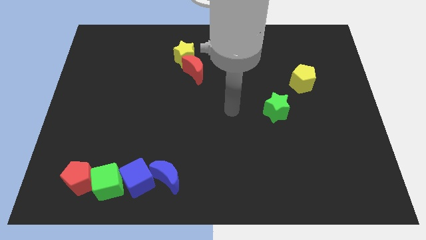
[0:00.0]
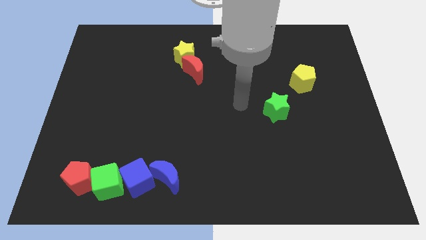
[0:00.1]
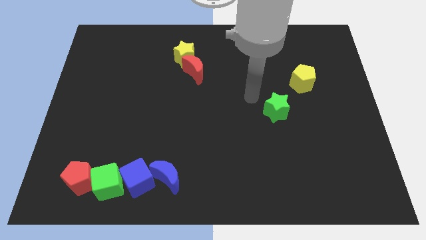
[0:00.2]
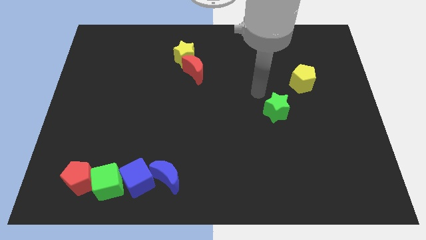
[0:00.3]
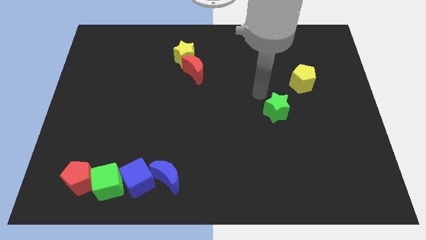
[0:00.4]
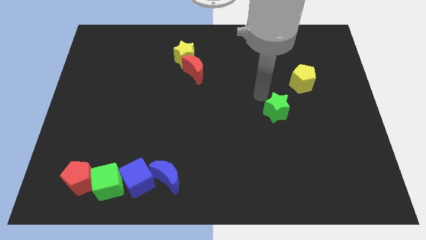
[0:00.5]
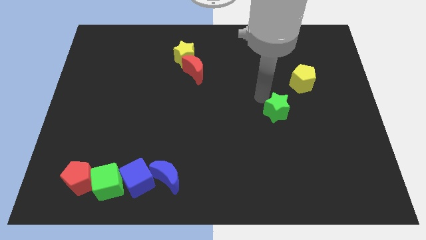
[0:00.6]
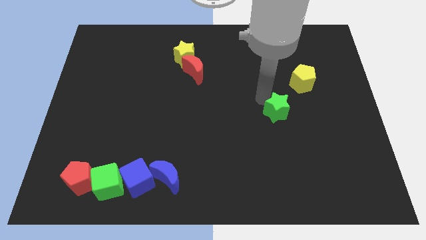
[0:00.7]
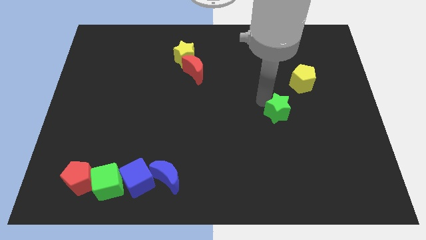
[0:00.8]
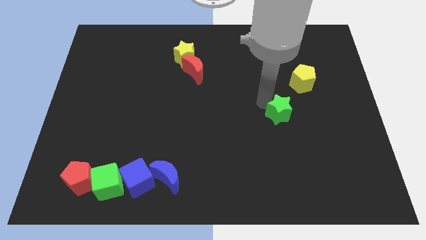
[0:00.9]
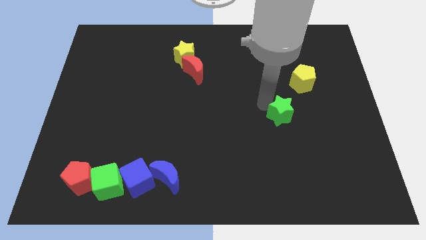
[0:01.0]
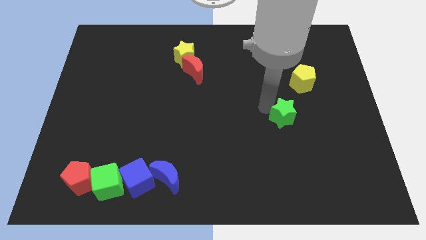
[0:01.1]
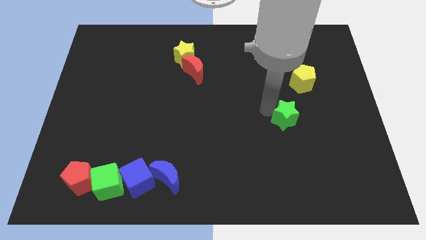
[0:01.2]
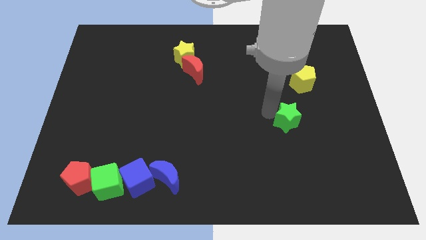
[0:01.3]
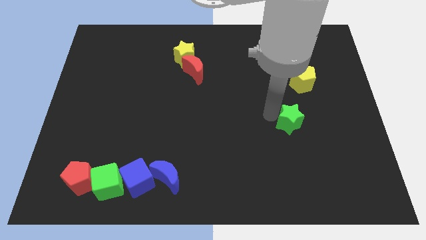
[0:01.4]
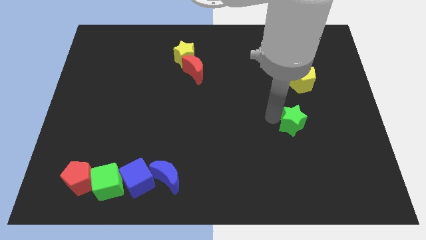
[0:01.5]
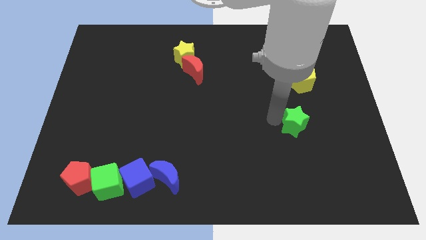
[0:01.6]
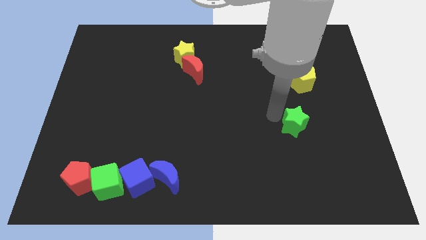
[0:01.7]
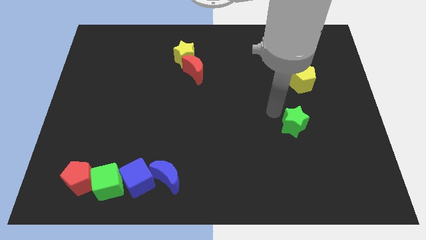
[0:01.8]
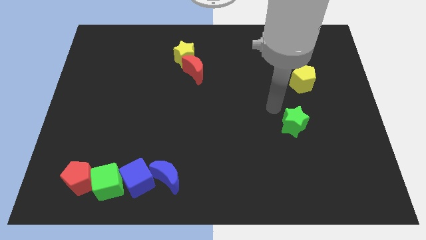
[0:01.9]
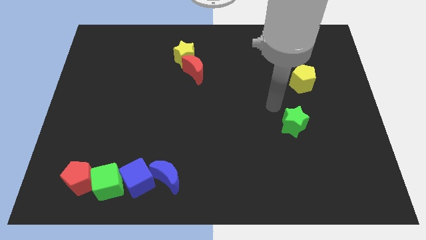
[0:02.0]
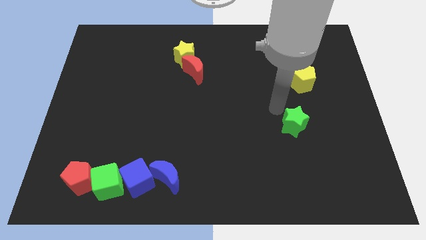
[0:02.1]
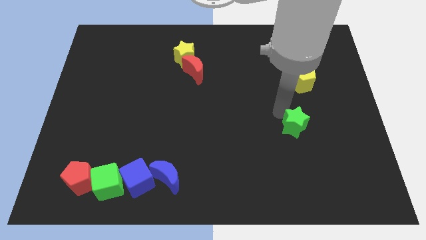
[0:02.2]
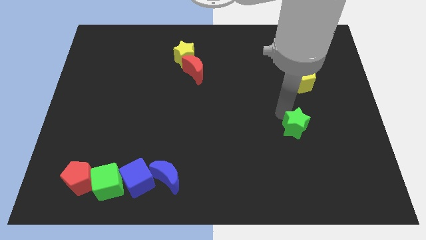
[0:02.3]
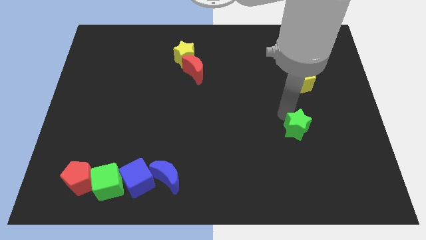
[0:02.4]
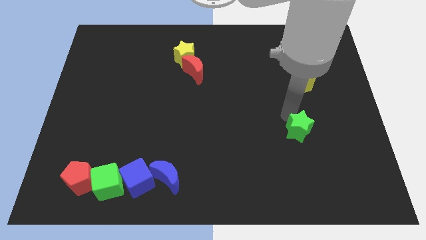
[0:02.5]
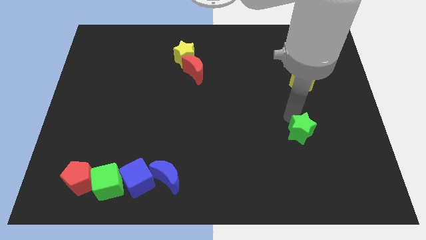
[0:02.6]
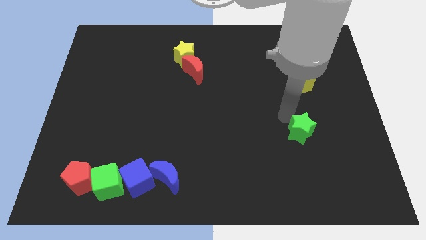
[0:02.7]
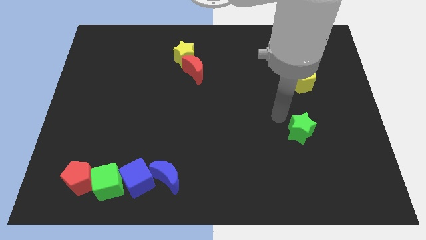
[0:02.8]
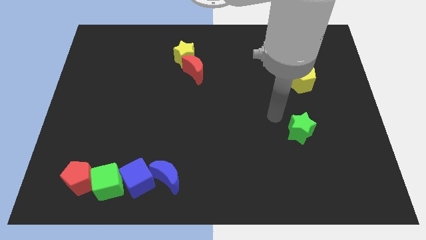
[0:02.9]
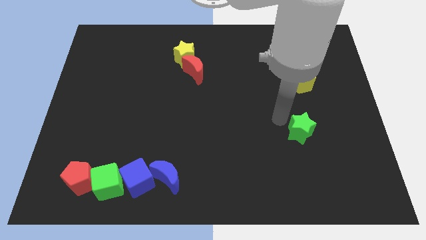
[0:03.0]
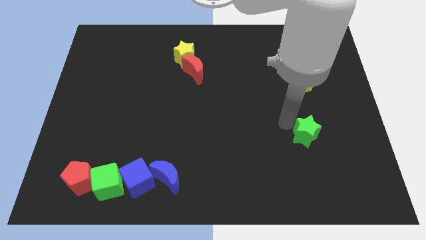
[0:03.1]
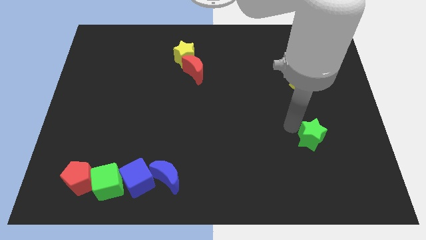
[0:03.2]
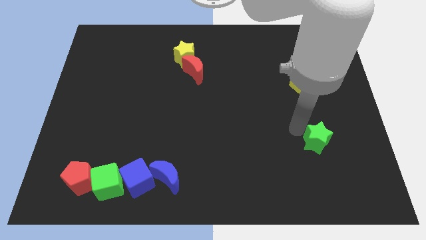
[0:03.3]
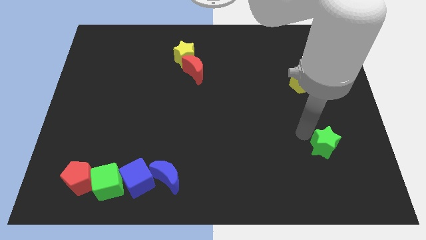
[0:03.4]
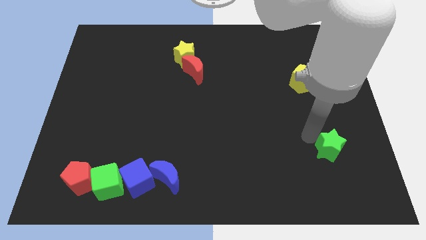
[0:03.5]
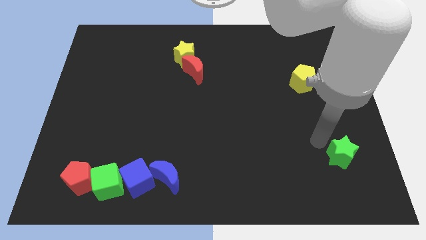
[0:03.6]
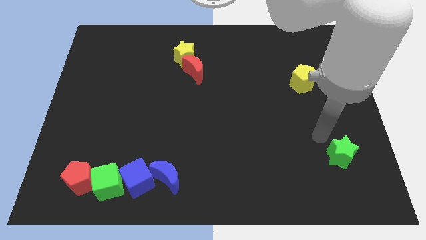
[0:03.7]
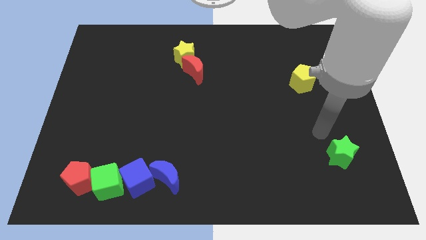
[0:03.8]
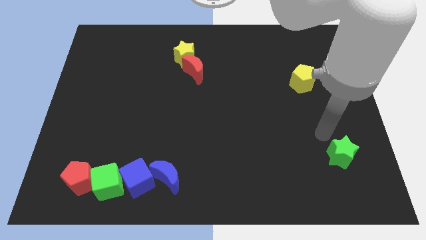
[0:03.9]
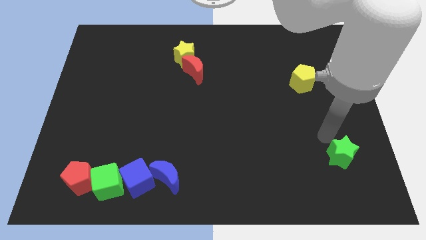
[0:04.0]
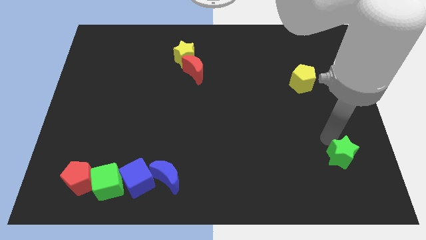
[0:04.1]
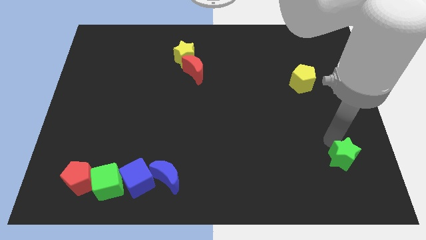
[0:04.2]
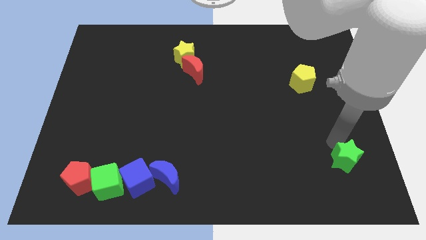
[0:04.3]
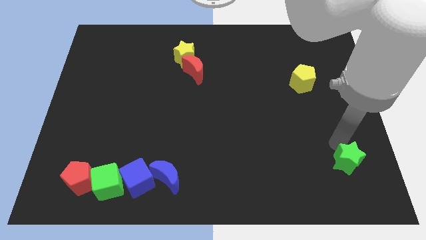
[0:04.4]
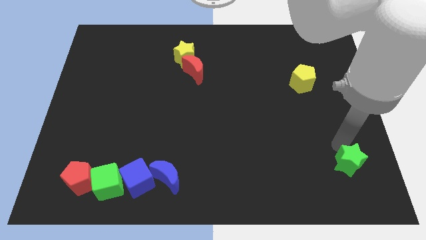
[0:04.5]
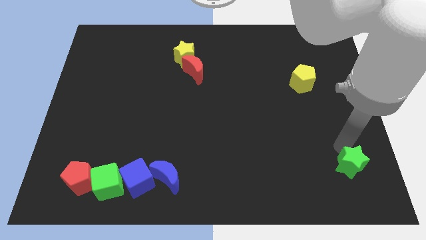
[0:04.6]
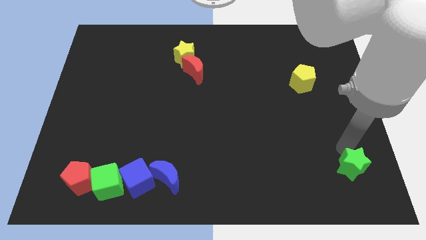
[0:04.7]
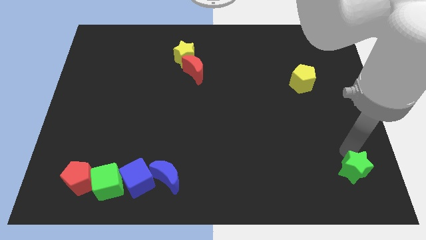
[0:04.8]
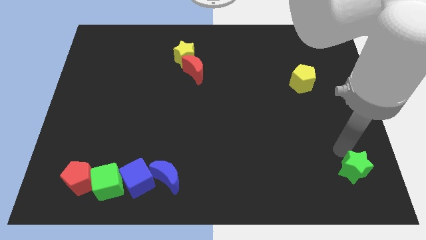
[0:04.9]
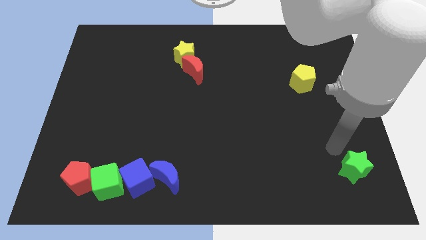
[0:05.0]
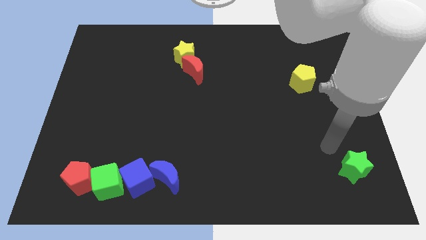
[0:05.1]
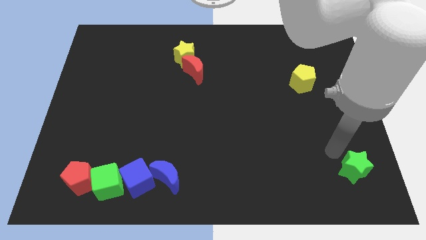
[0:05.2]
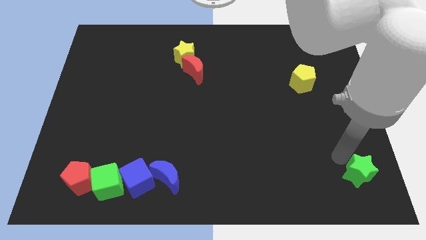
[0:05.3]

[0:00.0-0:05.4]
slide the green star to the lower right corner

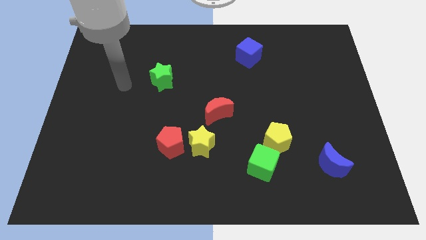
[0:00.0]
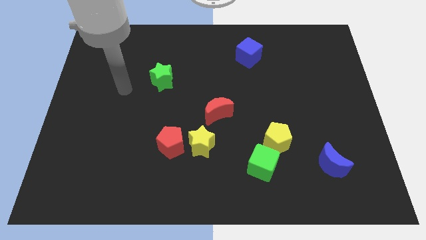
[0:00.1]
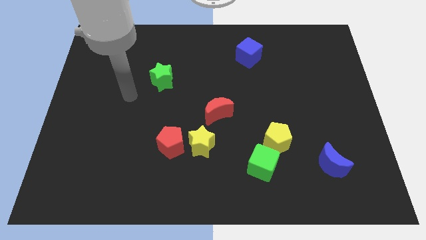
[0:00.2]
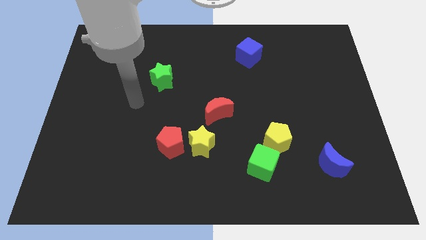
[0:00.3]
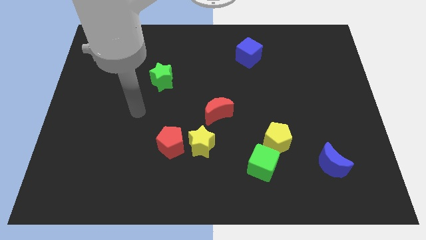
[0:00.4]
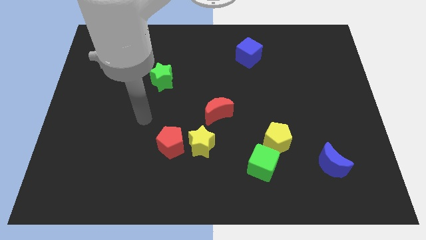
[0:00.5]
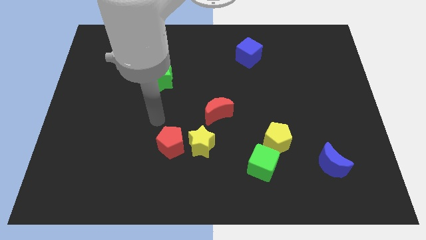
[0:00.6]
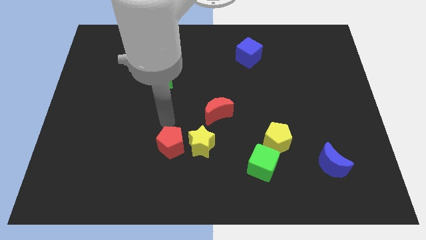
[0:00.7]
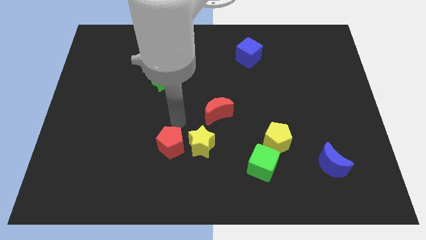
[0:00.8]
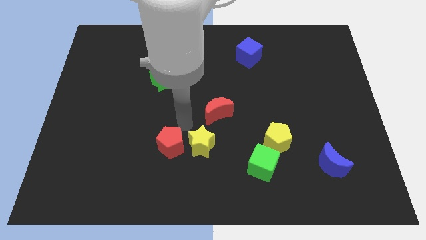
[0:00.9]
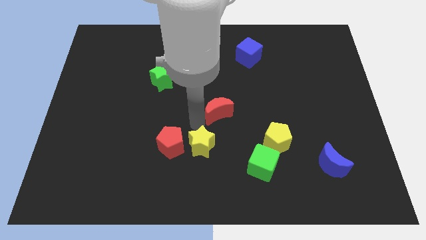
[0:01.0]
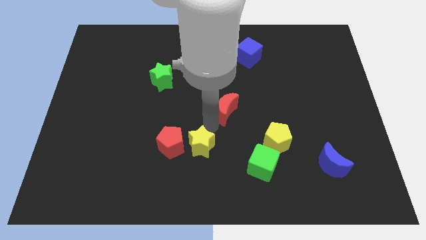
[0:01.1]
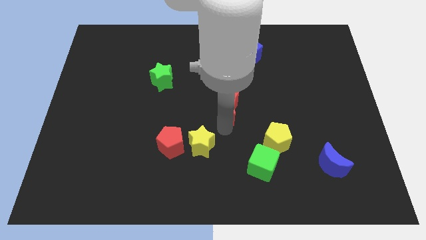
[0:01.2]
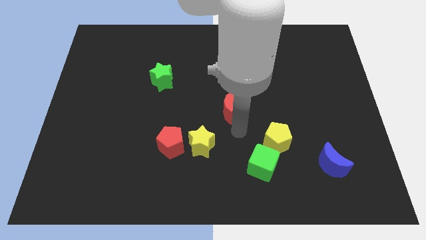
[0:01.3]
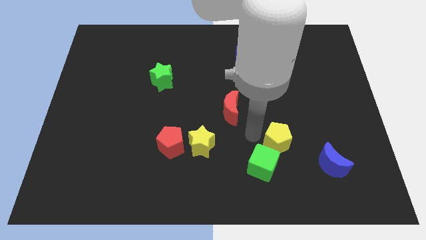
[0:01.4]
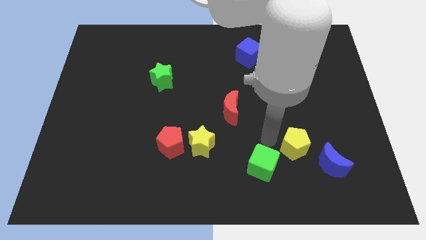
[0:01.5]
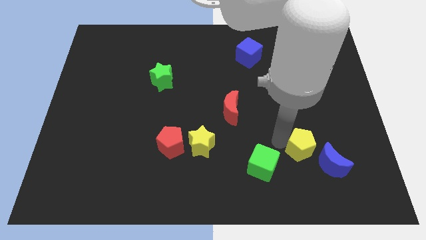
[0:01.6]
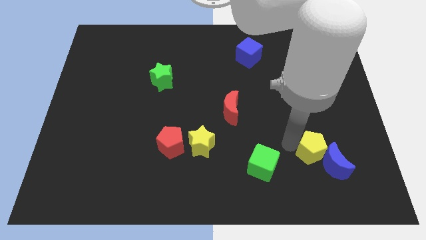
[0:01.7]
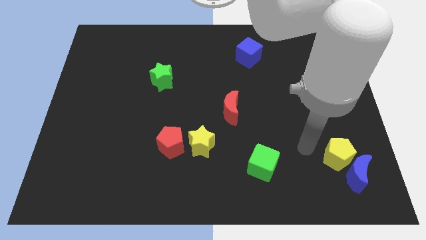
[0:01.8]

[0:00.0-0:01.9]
push the blue moon to the lower right corner
